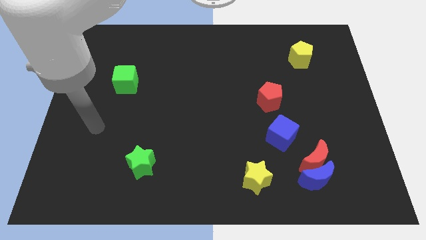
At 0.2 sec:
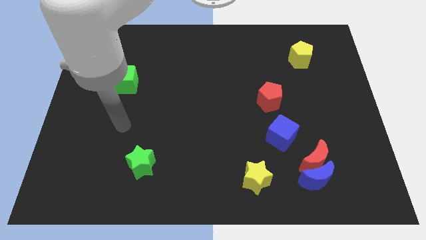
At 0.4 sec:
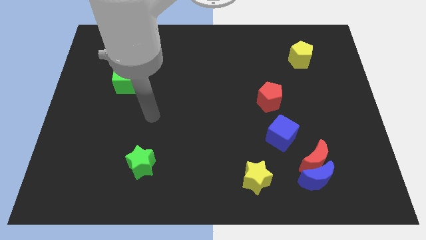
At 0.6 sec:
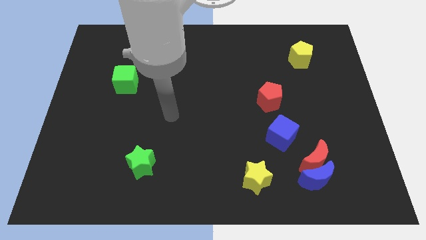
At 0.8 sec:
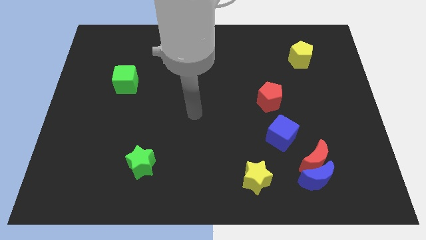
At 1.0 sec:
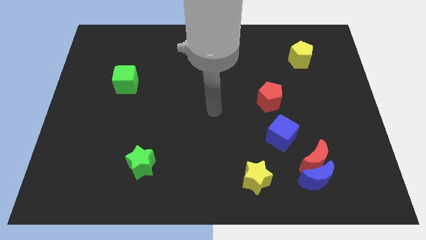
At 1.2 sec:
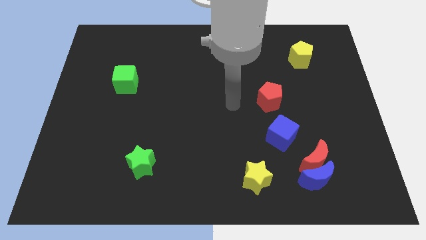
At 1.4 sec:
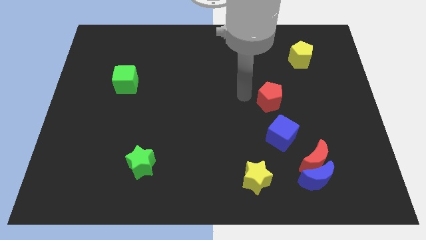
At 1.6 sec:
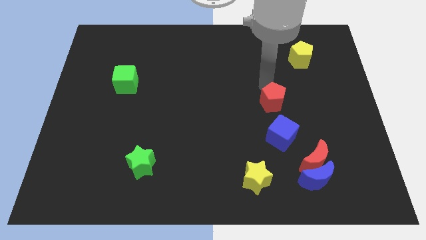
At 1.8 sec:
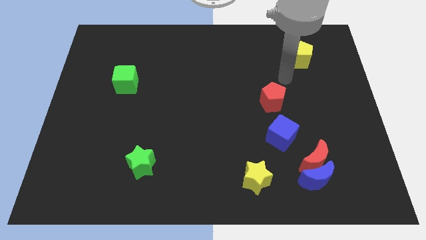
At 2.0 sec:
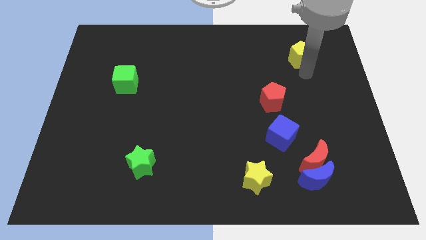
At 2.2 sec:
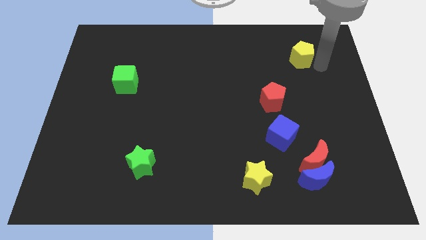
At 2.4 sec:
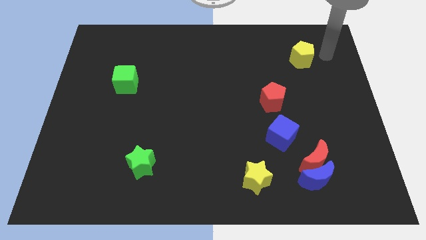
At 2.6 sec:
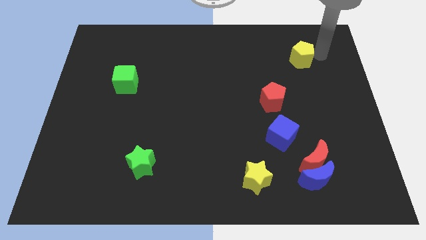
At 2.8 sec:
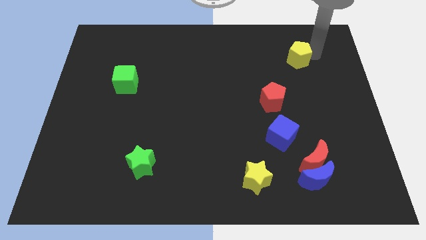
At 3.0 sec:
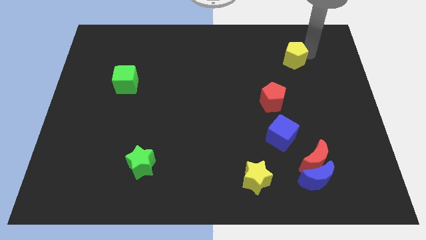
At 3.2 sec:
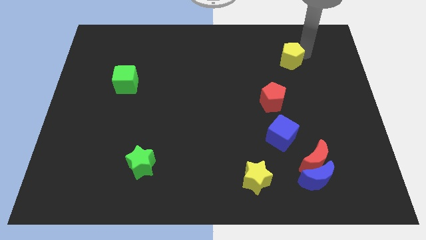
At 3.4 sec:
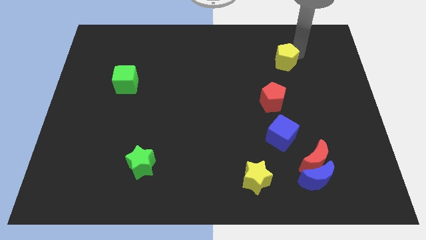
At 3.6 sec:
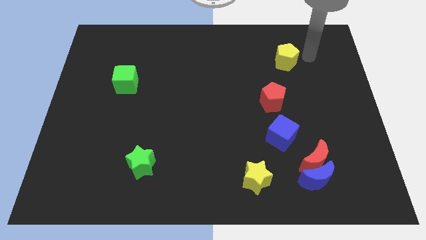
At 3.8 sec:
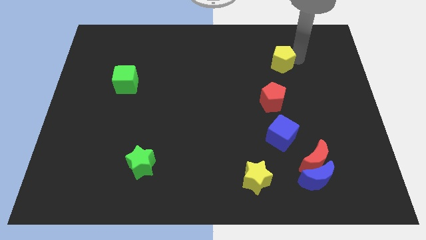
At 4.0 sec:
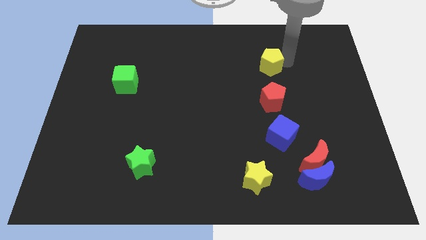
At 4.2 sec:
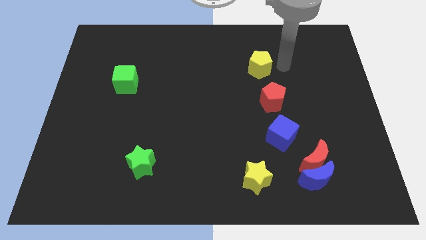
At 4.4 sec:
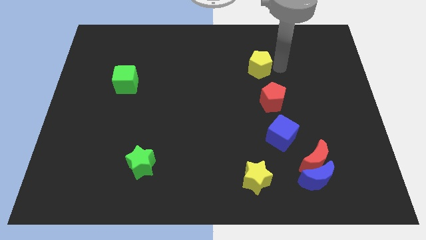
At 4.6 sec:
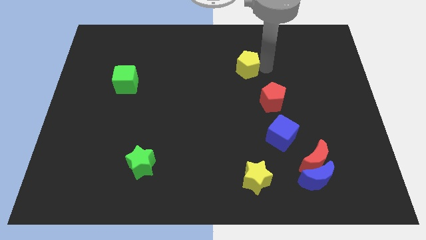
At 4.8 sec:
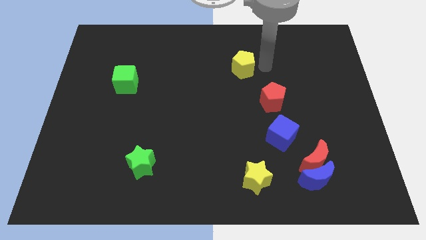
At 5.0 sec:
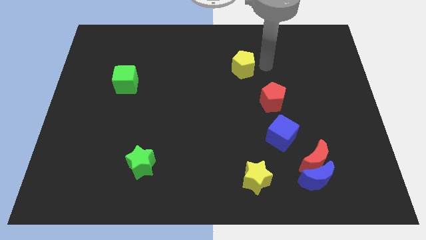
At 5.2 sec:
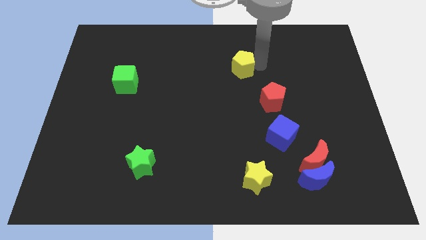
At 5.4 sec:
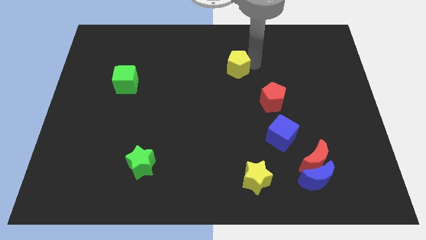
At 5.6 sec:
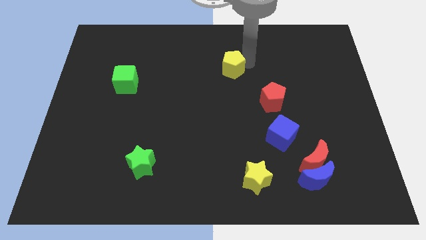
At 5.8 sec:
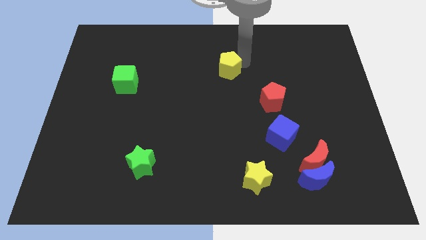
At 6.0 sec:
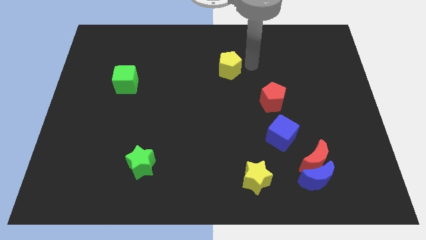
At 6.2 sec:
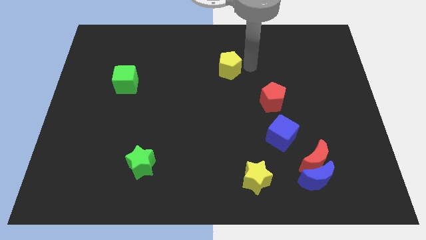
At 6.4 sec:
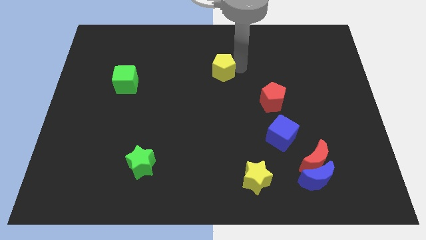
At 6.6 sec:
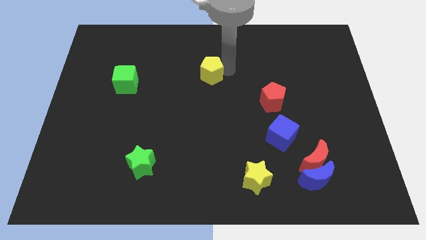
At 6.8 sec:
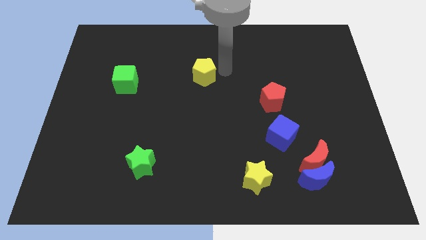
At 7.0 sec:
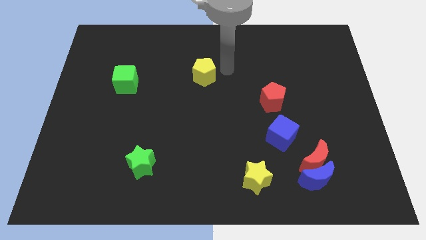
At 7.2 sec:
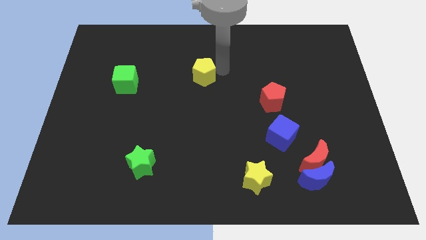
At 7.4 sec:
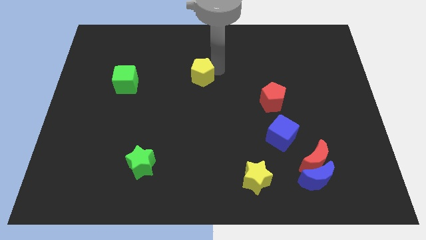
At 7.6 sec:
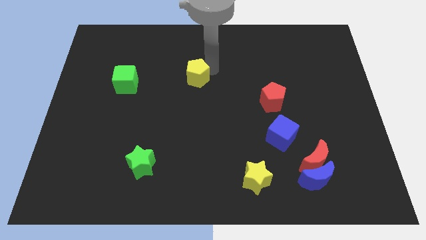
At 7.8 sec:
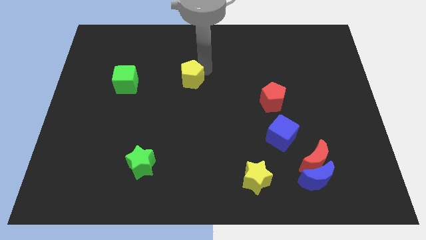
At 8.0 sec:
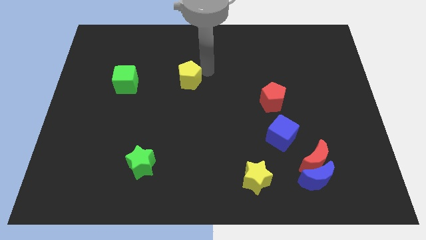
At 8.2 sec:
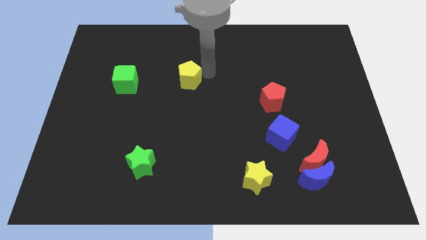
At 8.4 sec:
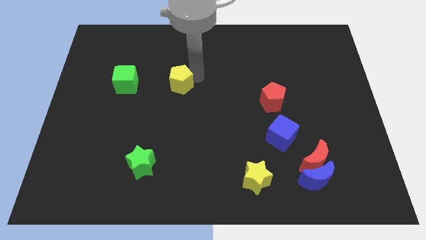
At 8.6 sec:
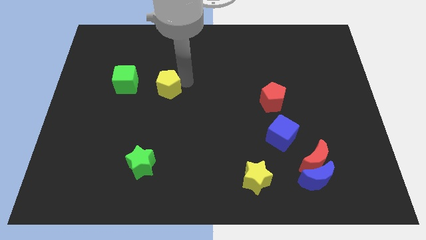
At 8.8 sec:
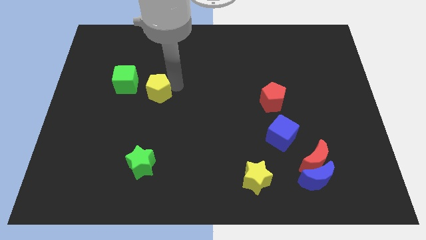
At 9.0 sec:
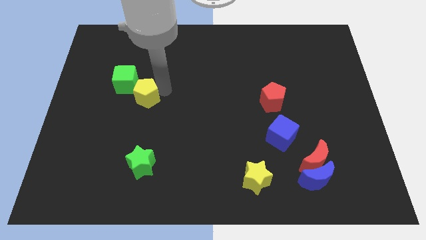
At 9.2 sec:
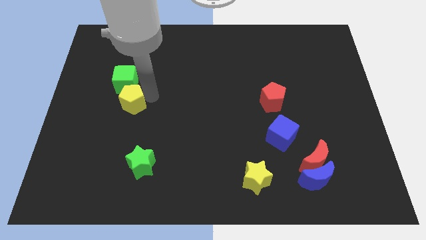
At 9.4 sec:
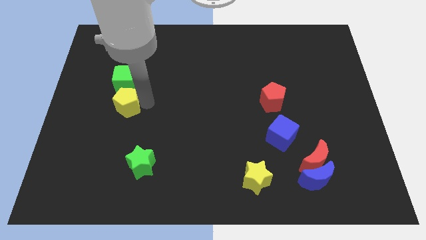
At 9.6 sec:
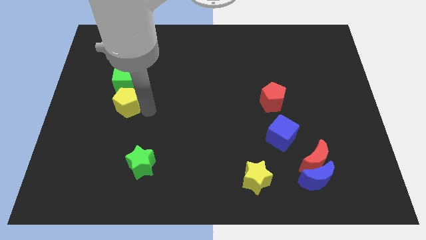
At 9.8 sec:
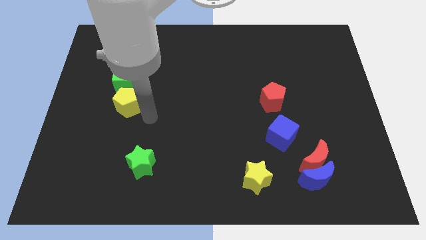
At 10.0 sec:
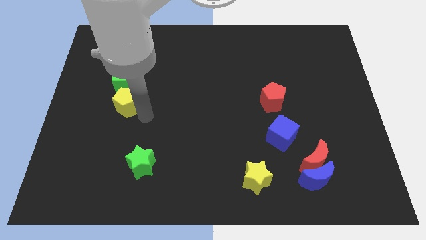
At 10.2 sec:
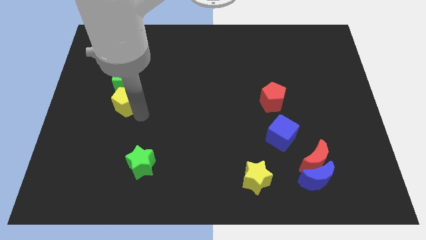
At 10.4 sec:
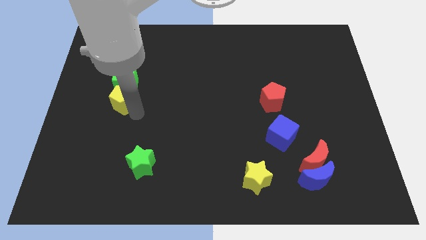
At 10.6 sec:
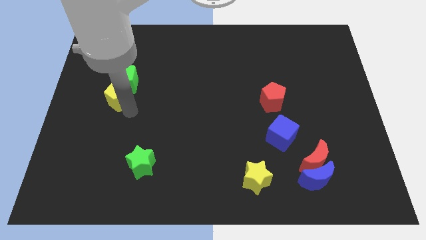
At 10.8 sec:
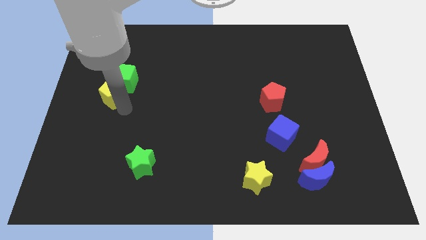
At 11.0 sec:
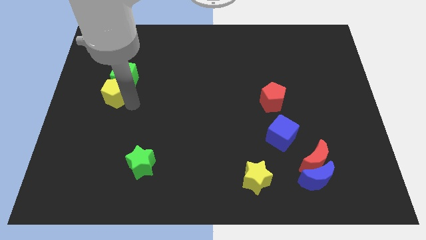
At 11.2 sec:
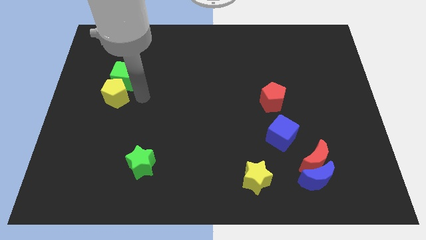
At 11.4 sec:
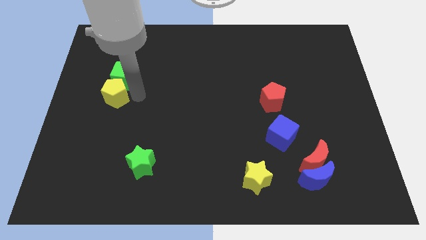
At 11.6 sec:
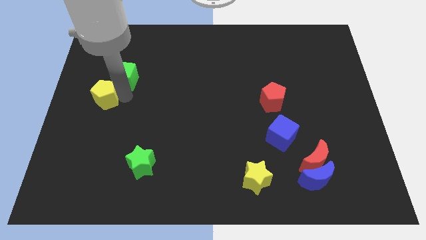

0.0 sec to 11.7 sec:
move the yellow pentagon to the center left

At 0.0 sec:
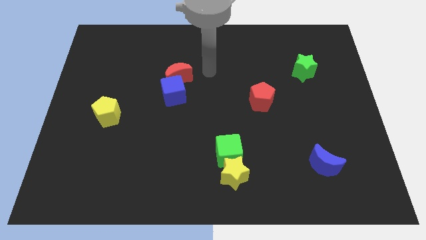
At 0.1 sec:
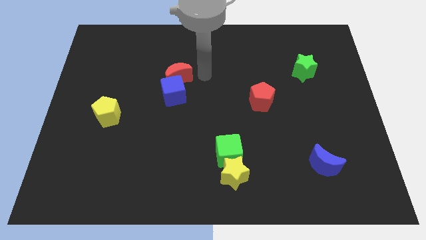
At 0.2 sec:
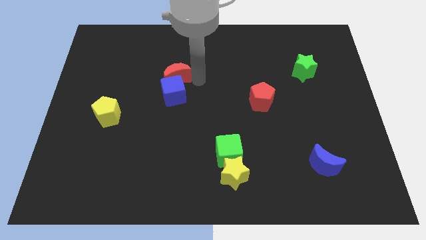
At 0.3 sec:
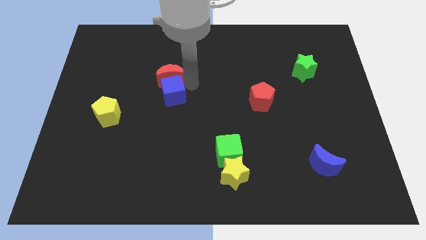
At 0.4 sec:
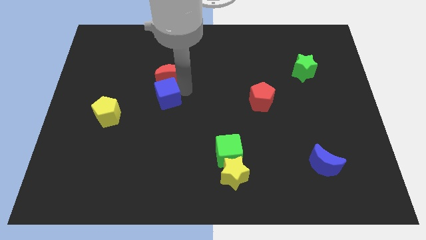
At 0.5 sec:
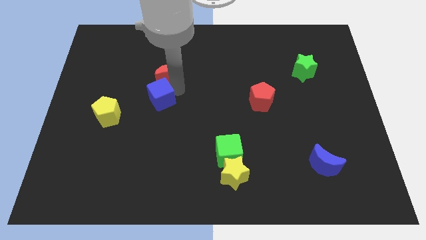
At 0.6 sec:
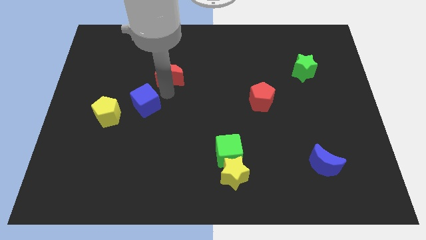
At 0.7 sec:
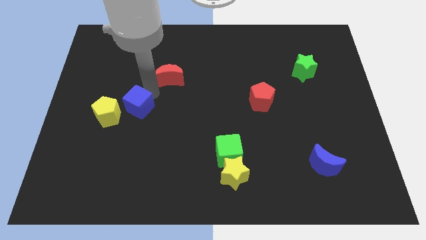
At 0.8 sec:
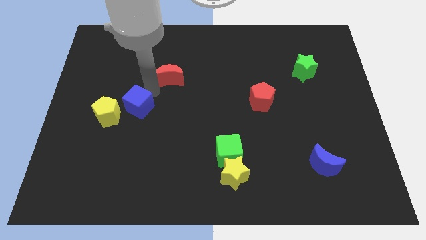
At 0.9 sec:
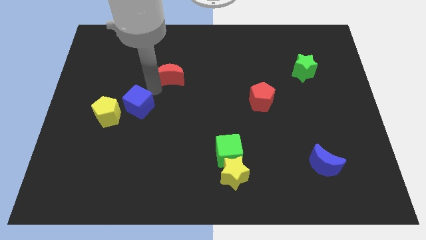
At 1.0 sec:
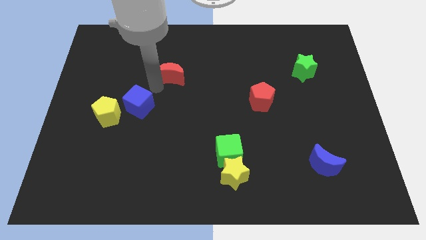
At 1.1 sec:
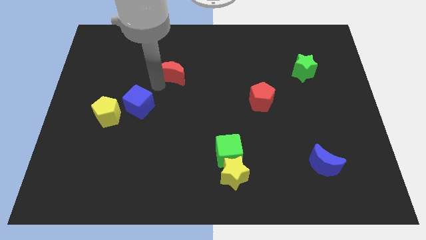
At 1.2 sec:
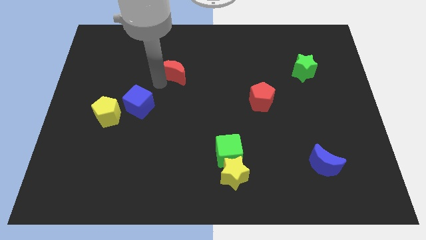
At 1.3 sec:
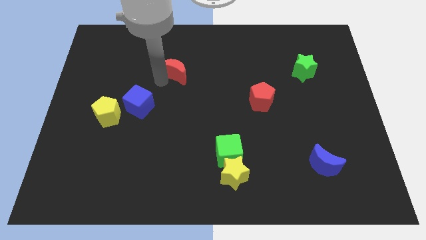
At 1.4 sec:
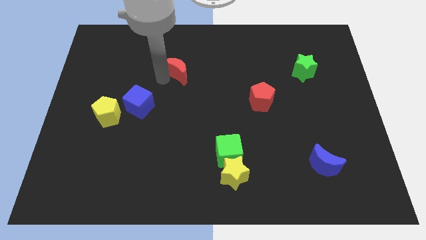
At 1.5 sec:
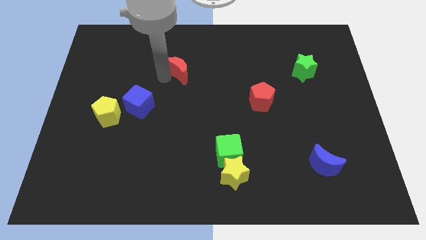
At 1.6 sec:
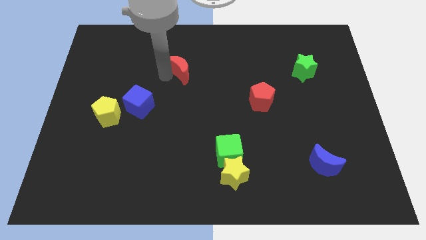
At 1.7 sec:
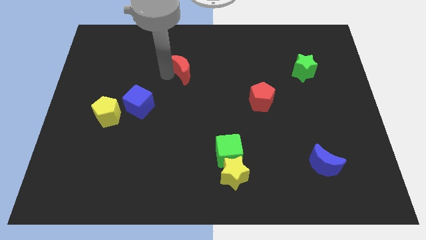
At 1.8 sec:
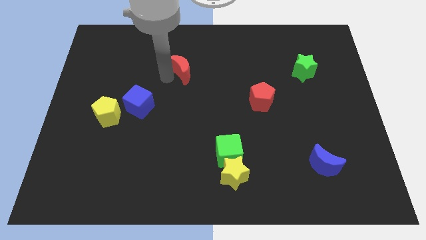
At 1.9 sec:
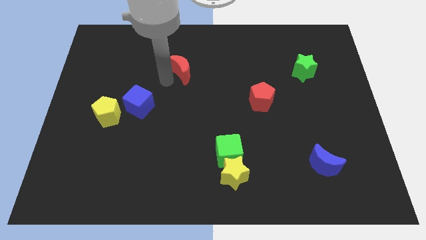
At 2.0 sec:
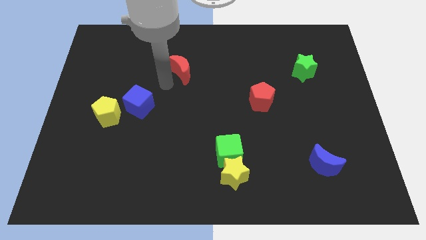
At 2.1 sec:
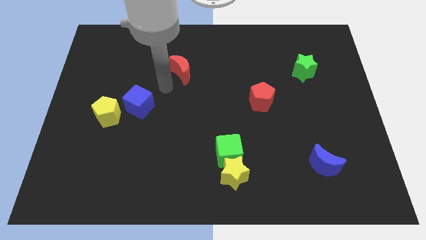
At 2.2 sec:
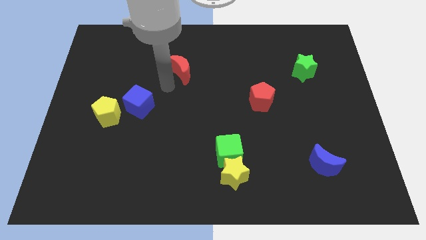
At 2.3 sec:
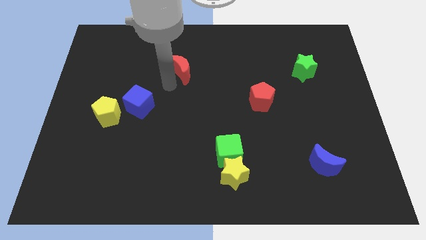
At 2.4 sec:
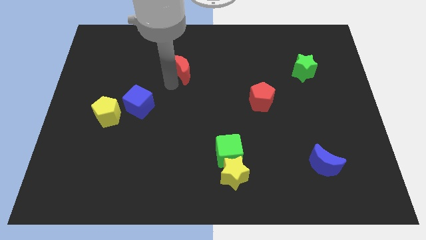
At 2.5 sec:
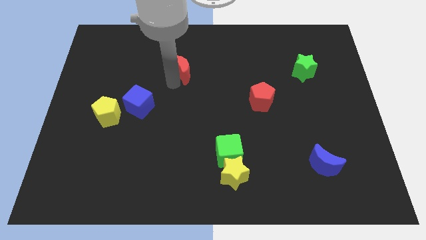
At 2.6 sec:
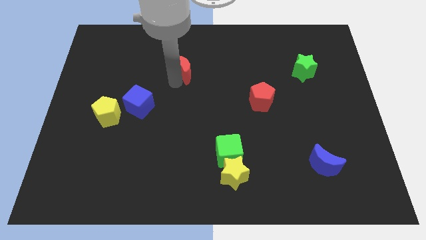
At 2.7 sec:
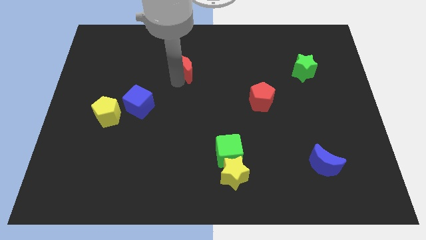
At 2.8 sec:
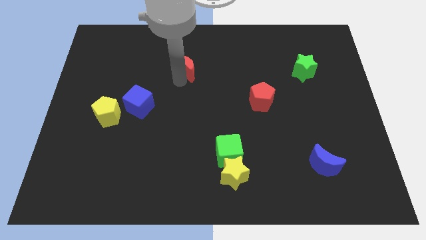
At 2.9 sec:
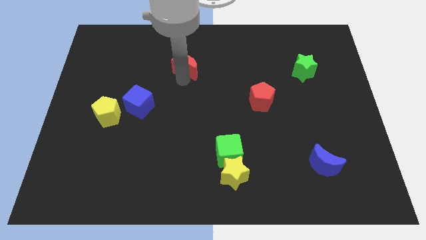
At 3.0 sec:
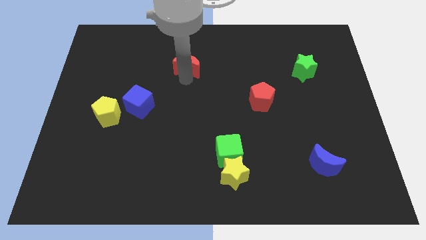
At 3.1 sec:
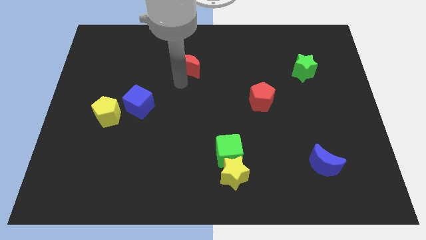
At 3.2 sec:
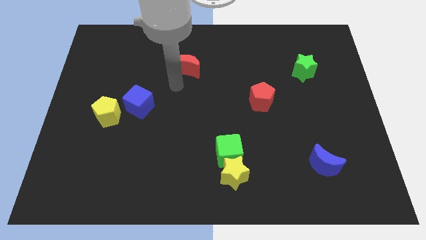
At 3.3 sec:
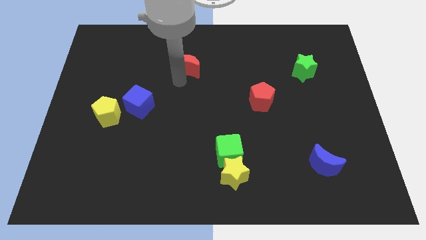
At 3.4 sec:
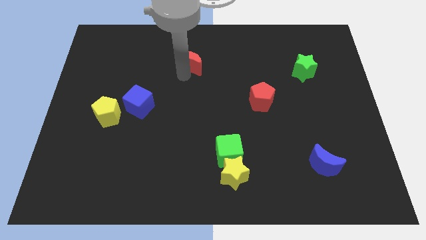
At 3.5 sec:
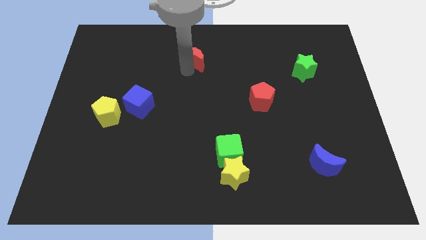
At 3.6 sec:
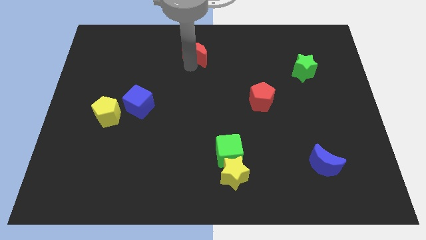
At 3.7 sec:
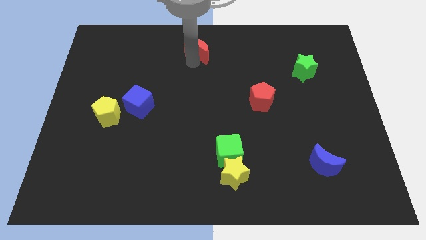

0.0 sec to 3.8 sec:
move the red moon to the top
